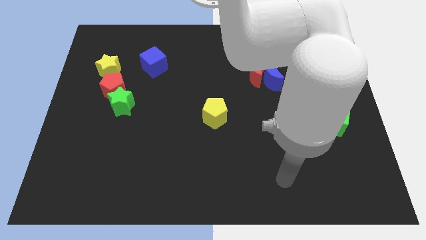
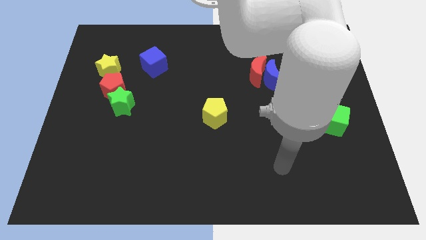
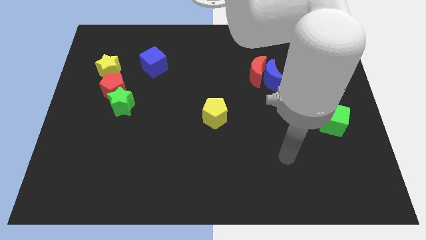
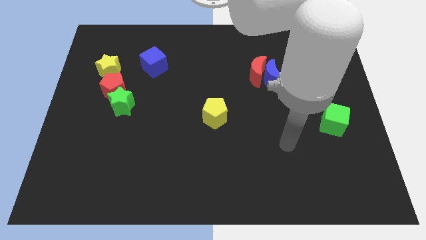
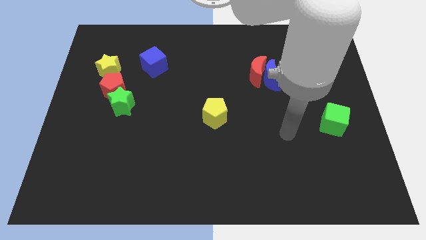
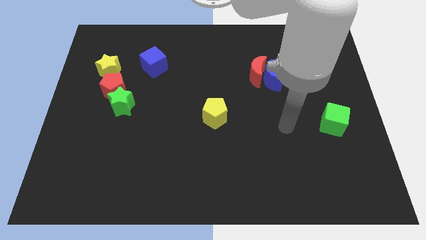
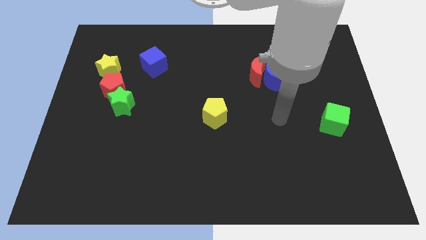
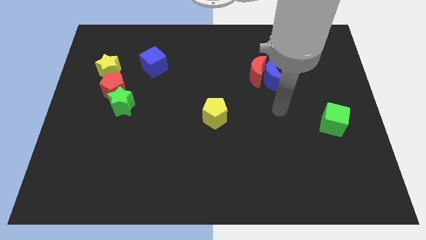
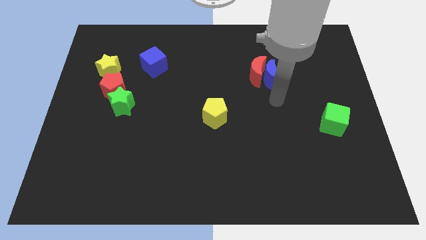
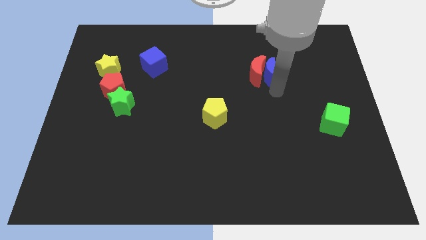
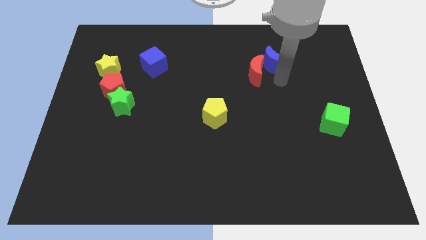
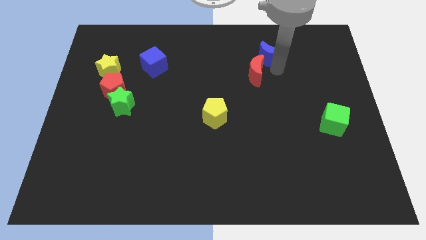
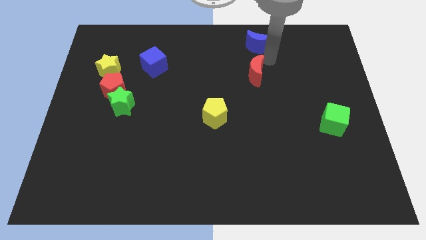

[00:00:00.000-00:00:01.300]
move the red moon away from the blue moon

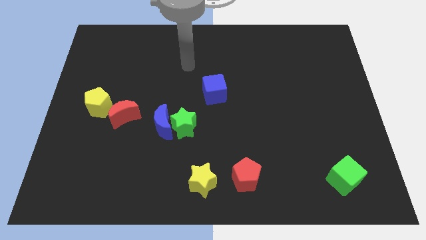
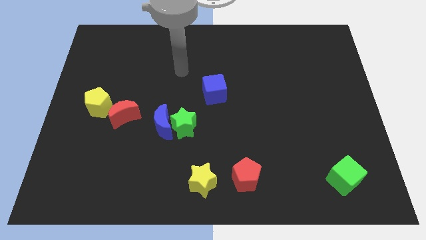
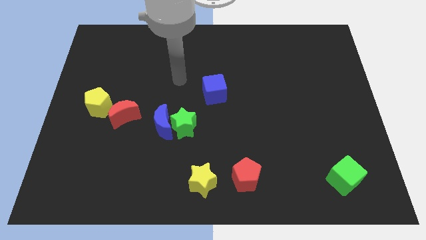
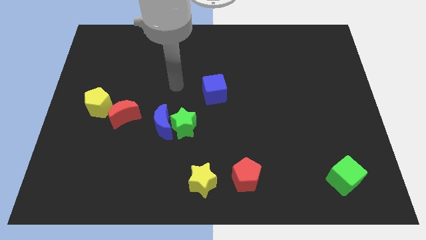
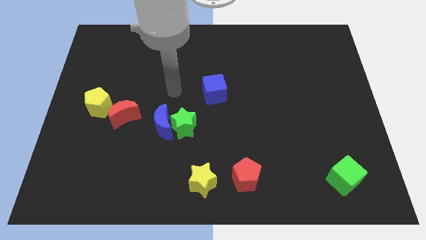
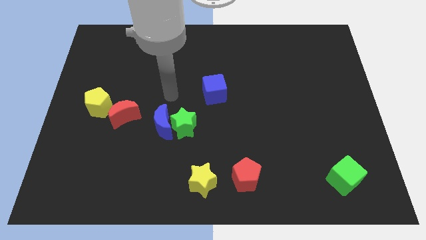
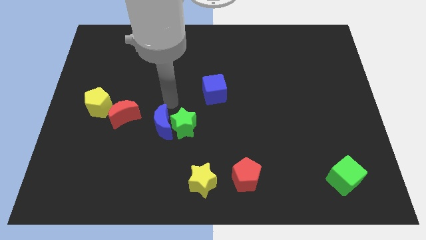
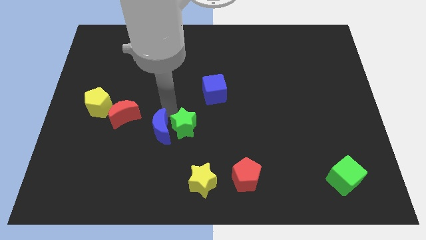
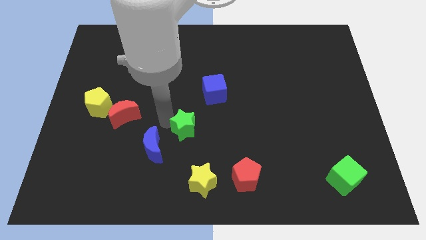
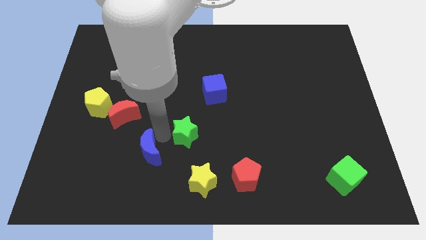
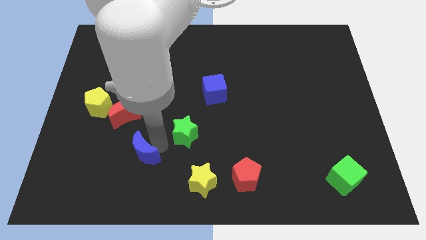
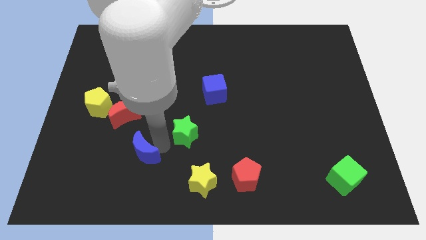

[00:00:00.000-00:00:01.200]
separate the green star from the blue moon

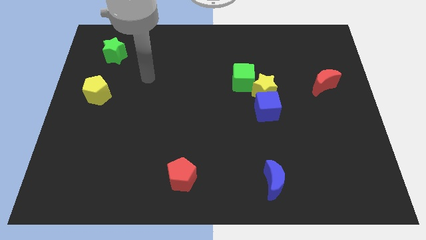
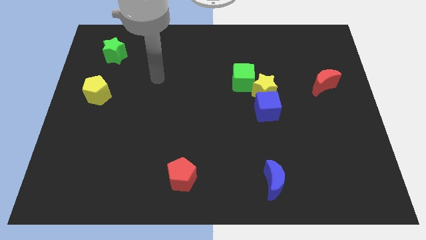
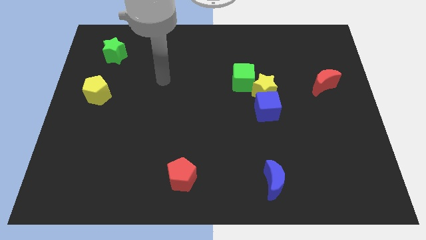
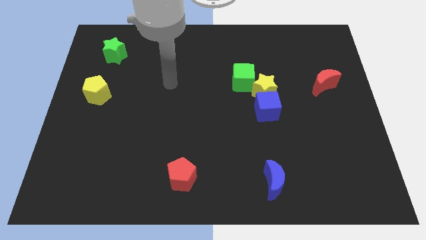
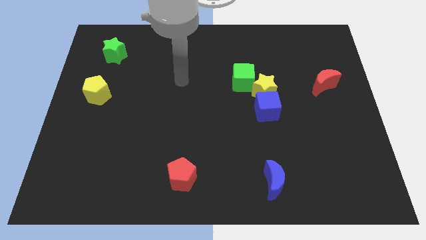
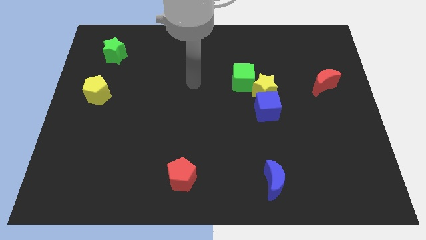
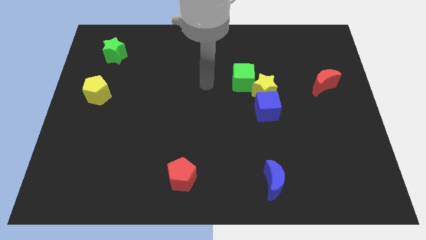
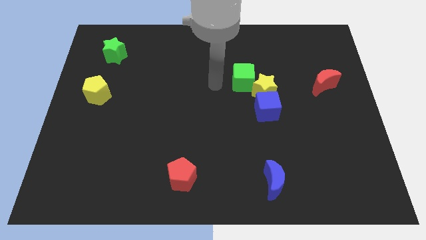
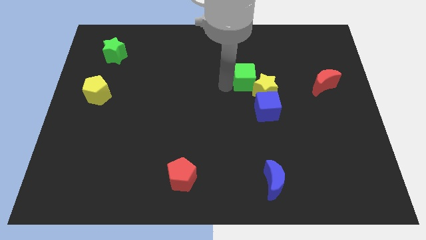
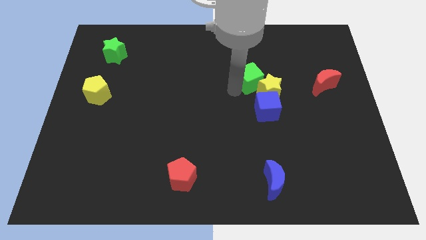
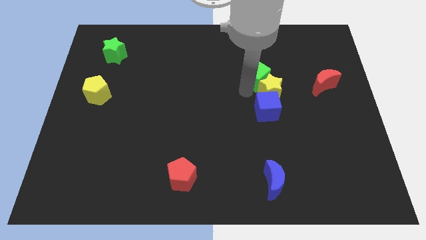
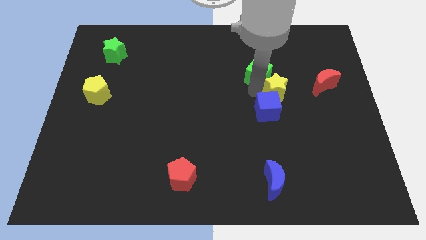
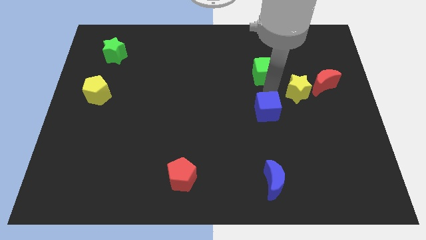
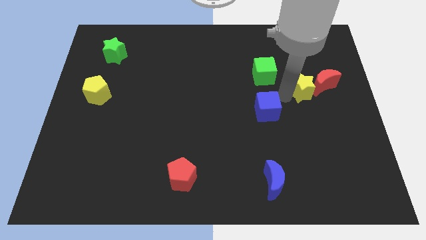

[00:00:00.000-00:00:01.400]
pull the blue cube apart from the yellow star

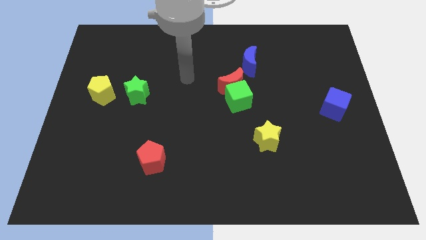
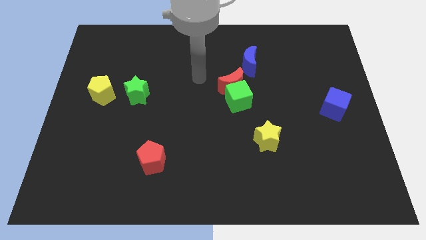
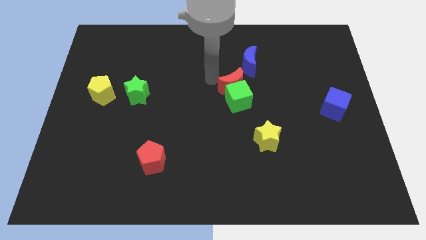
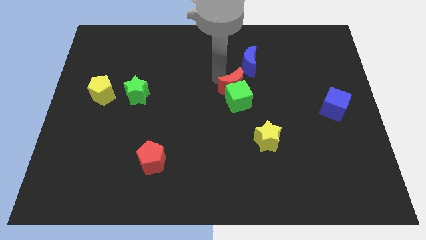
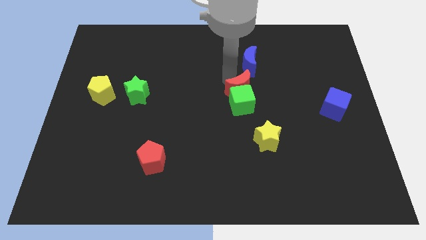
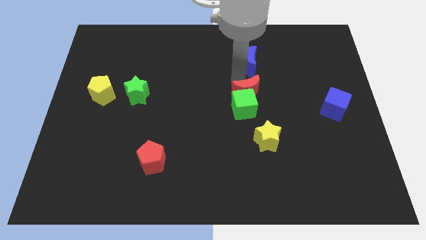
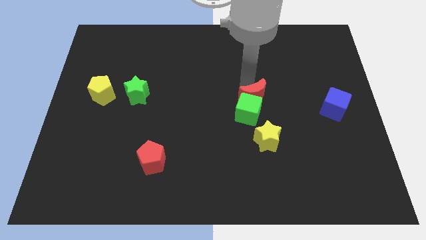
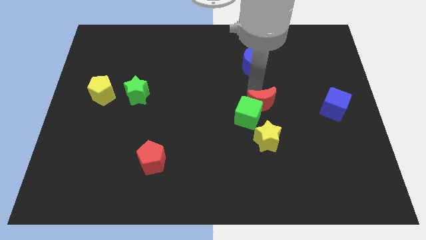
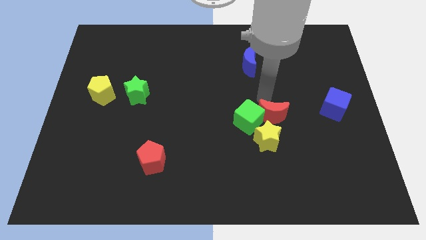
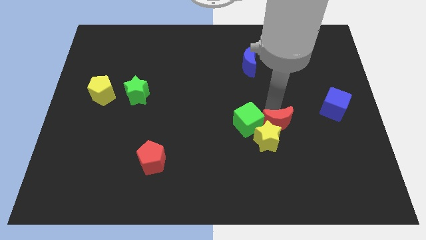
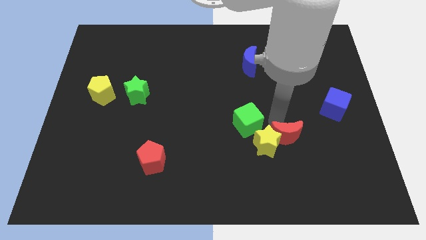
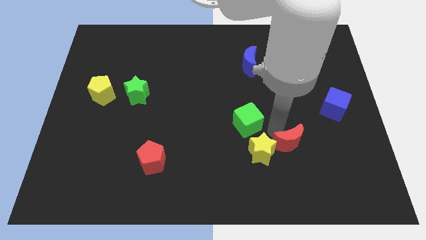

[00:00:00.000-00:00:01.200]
separate the green cube from the red moon

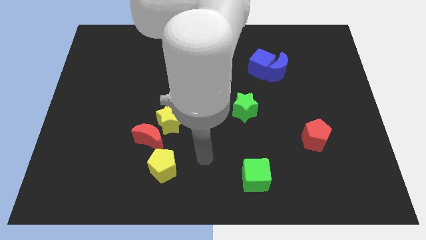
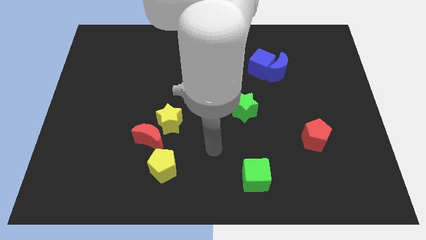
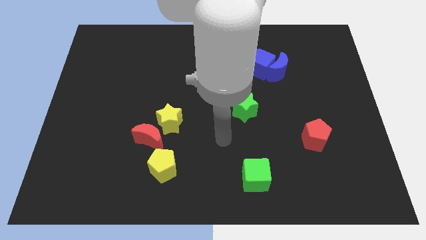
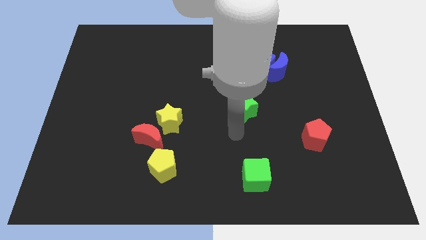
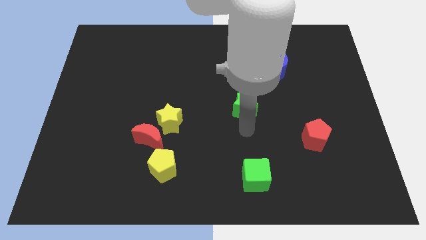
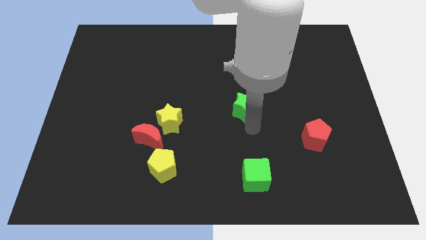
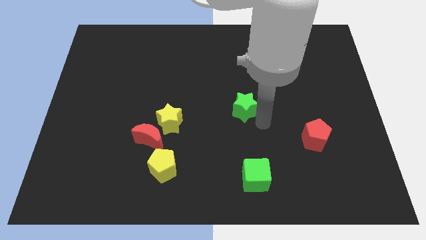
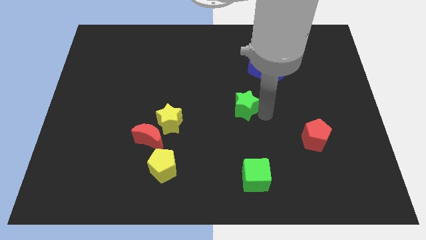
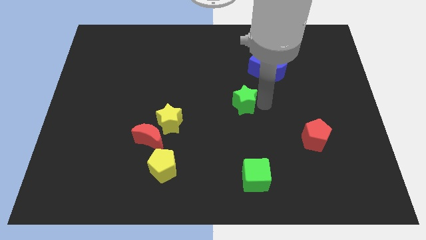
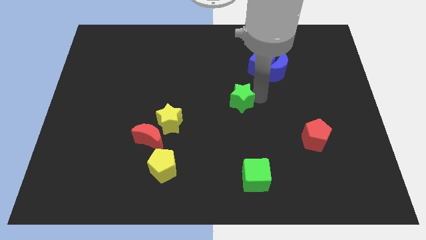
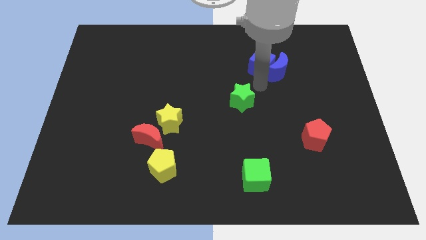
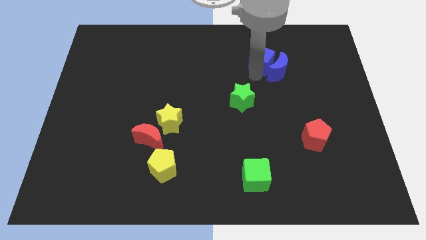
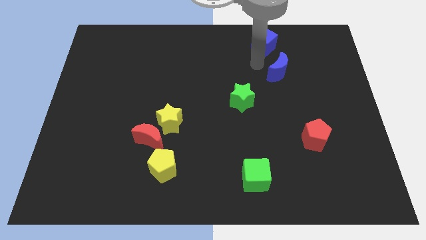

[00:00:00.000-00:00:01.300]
separate the blue moon from the blue cube

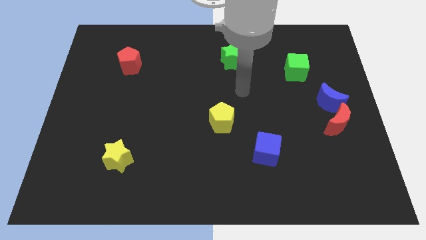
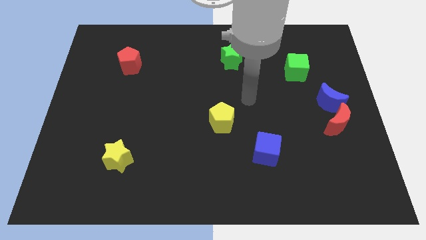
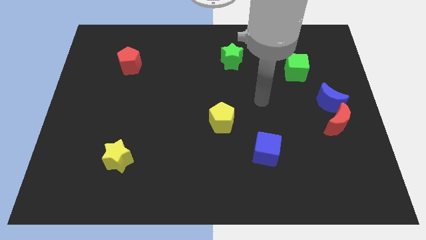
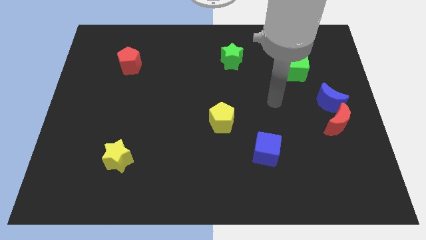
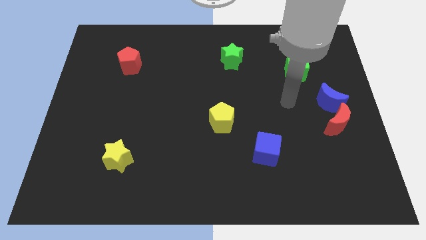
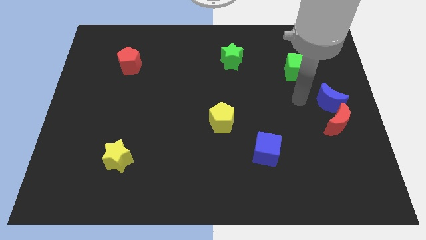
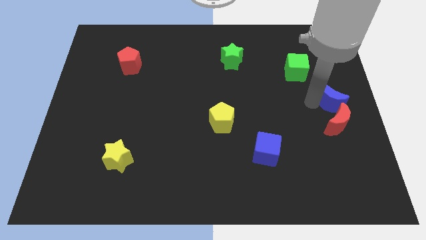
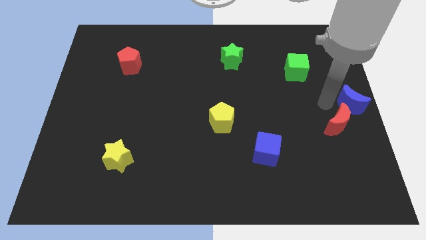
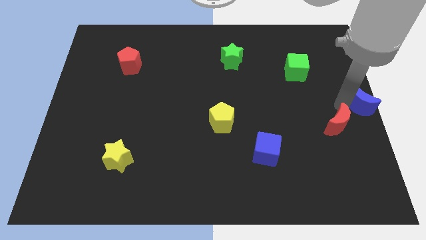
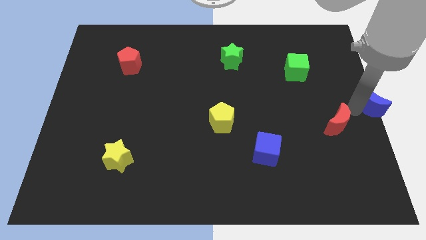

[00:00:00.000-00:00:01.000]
separate the red moon from the blue moon

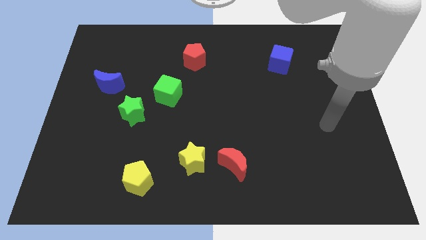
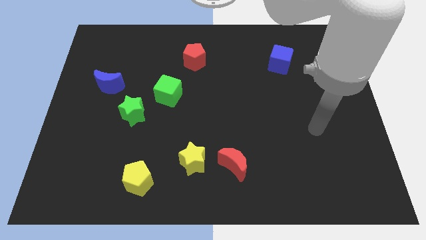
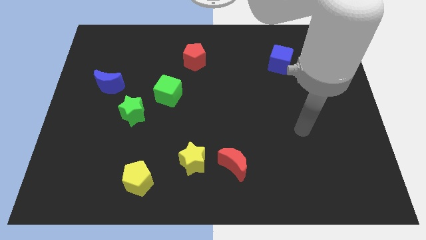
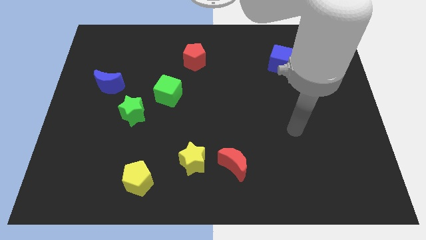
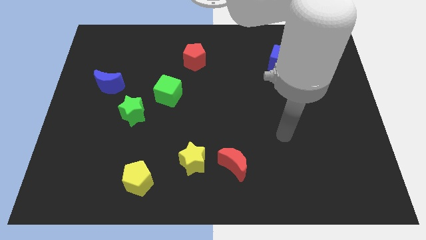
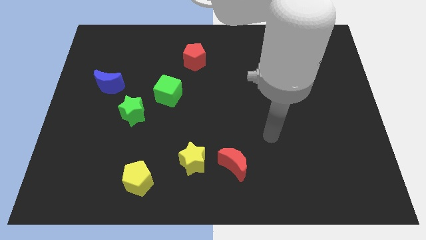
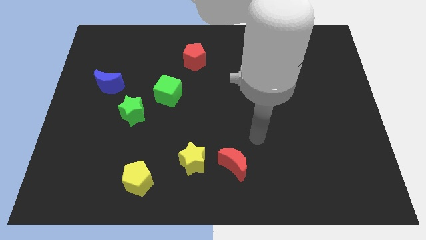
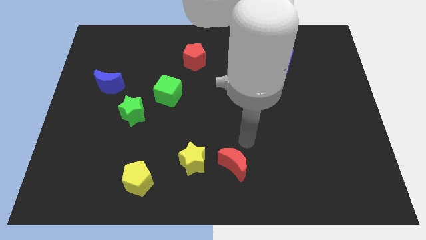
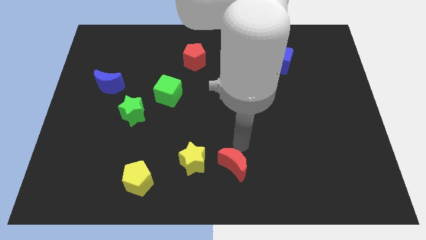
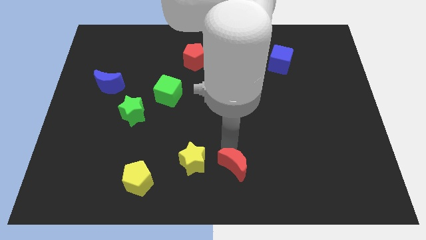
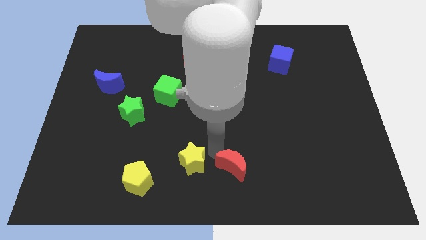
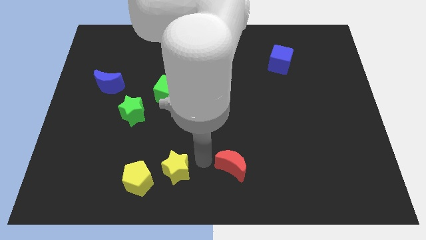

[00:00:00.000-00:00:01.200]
move the red moon away from the yellow star

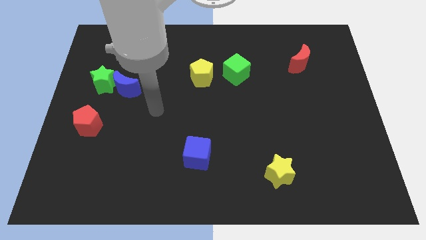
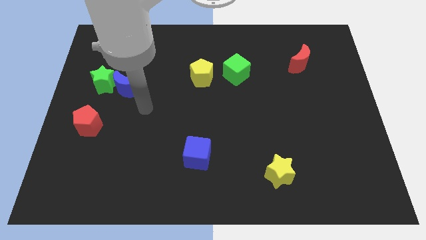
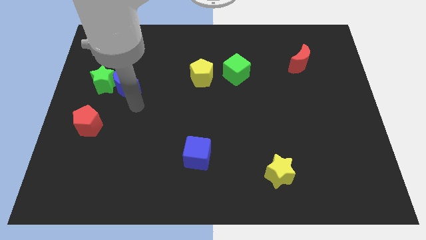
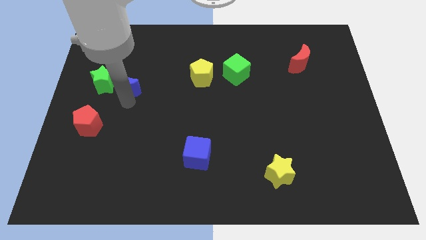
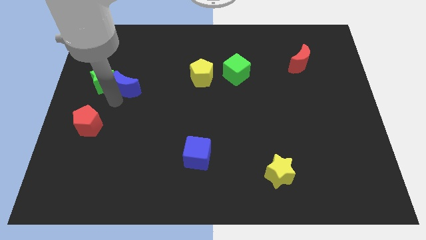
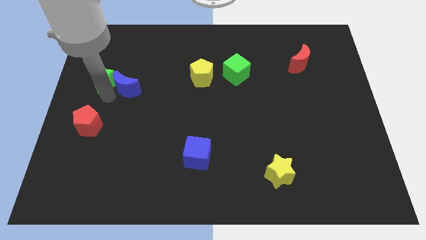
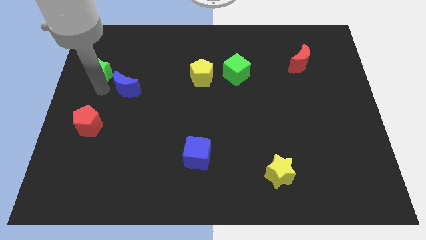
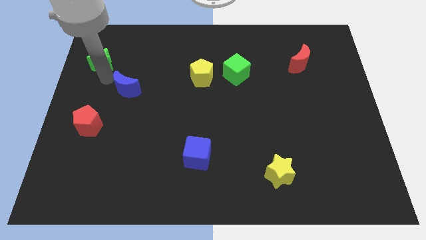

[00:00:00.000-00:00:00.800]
separate the blue moon from the green star
